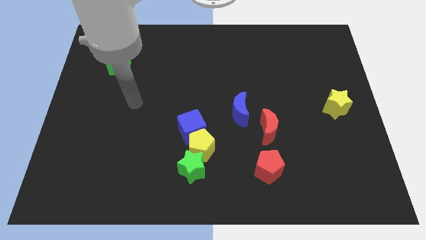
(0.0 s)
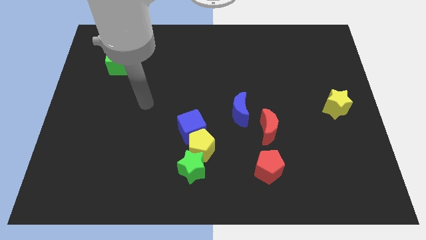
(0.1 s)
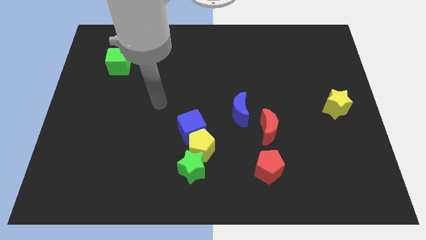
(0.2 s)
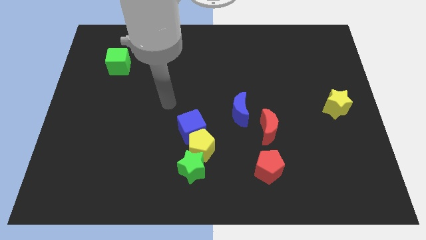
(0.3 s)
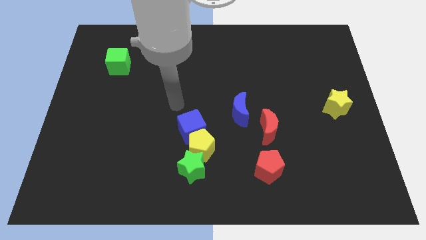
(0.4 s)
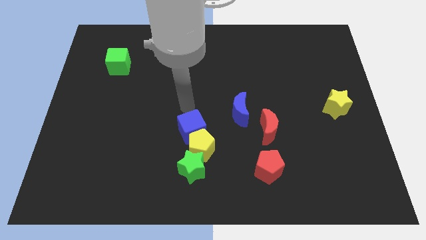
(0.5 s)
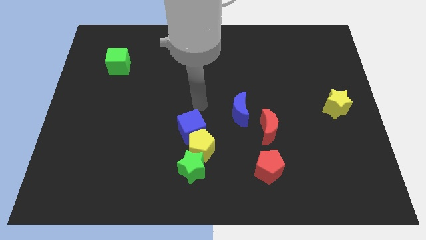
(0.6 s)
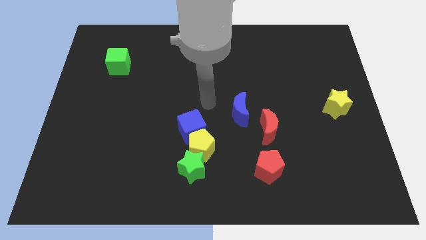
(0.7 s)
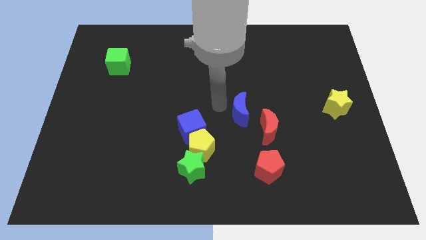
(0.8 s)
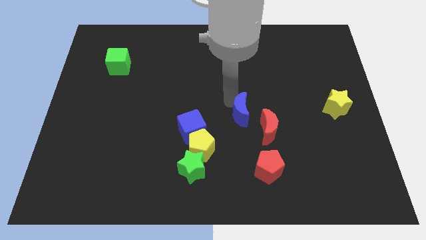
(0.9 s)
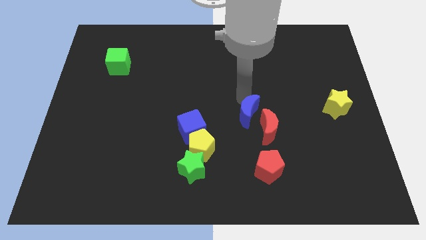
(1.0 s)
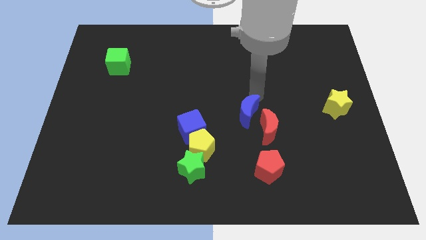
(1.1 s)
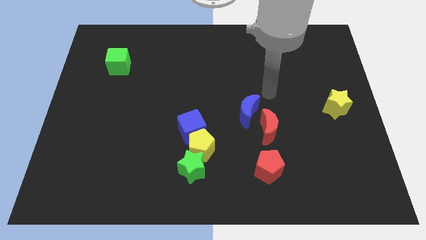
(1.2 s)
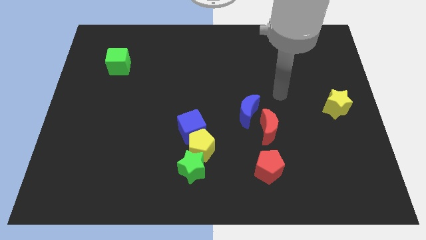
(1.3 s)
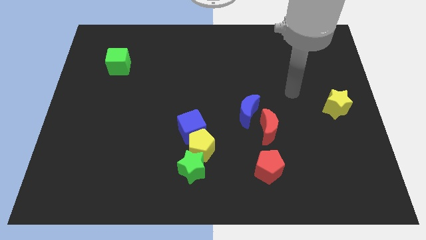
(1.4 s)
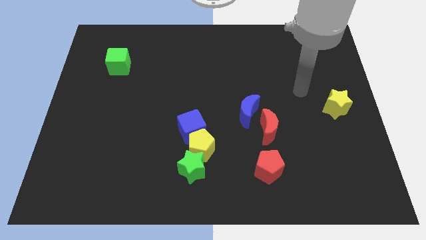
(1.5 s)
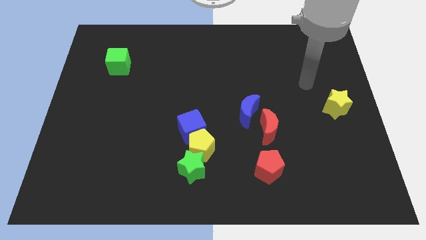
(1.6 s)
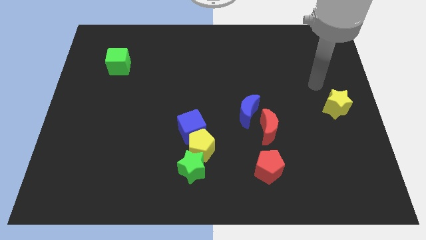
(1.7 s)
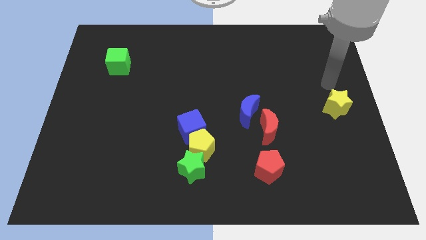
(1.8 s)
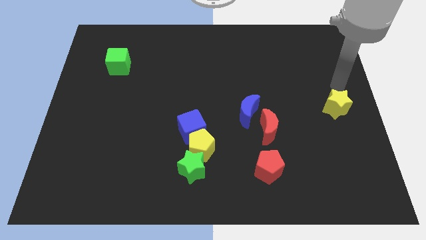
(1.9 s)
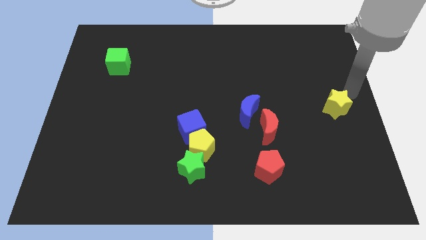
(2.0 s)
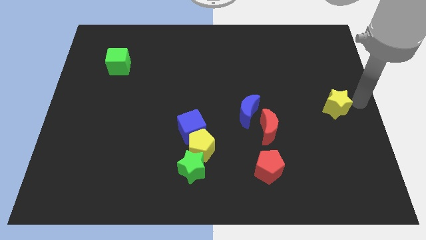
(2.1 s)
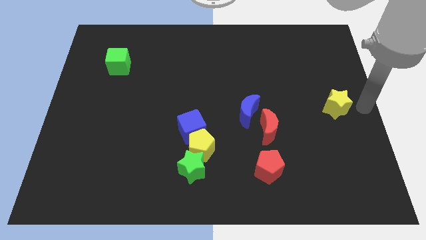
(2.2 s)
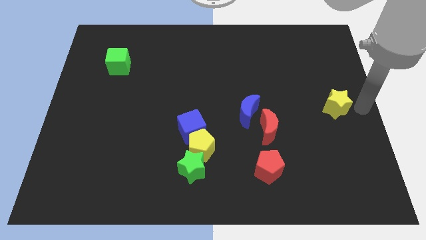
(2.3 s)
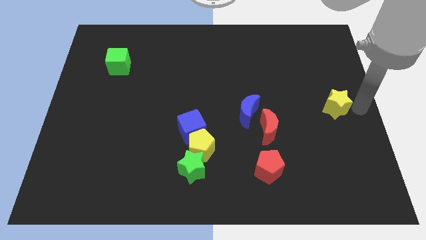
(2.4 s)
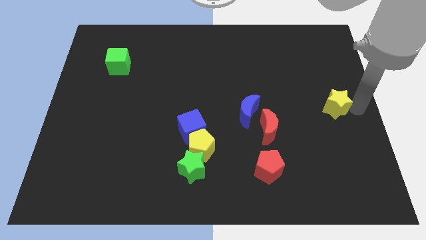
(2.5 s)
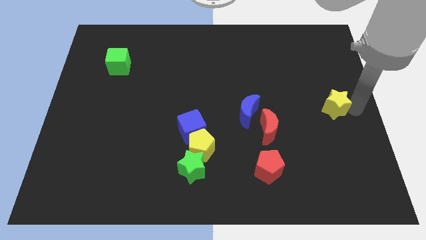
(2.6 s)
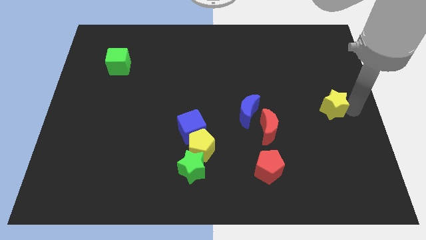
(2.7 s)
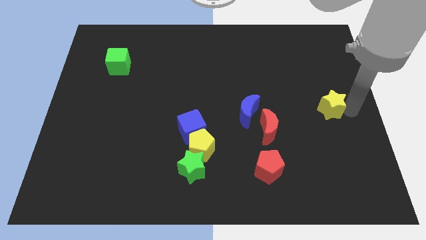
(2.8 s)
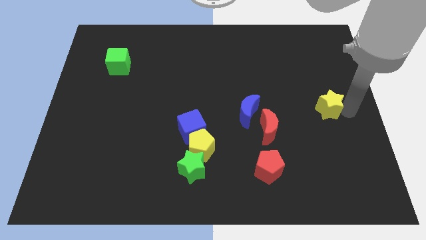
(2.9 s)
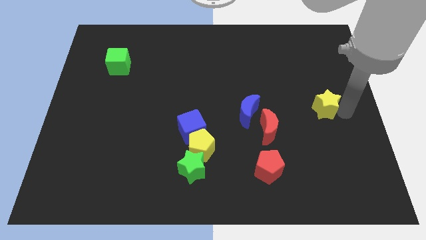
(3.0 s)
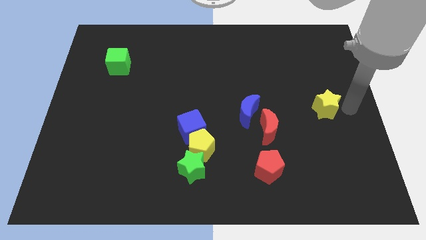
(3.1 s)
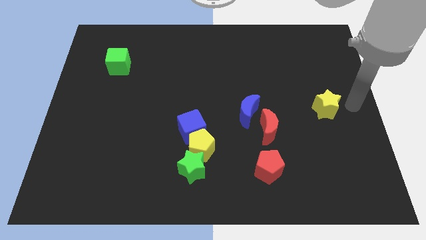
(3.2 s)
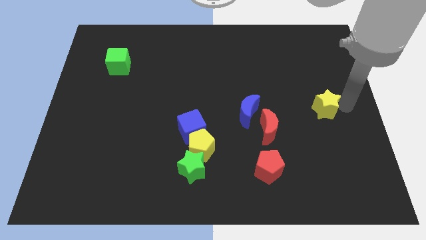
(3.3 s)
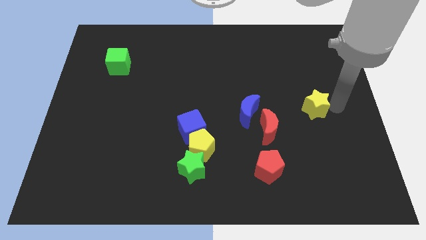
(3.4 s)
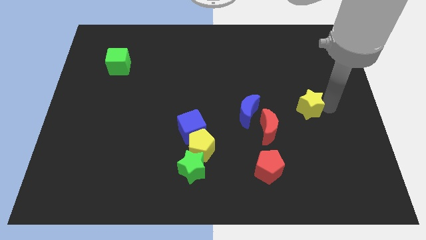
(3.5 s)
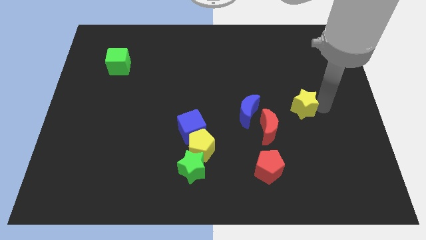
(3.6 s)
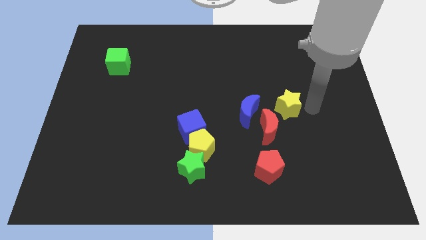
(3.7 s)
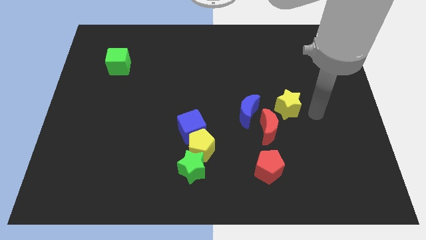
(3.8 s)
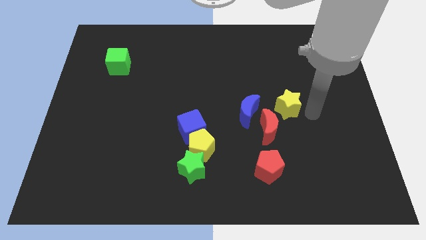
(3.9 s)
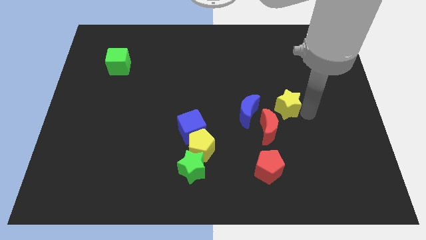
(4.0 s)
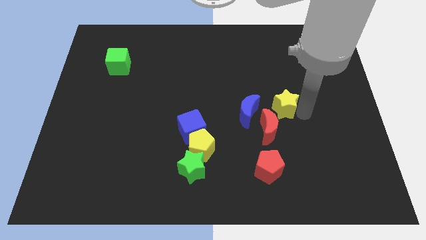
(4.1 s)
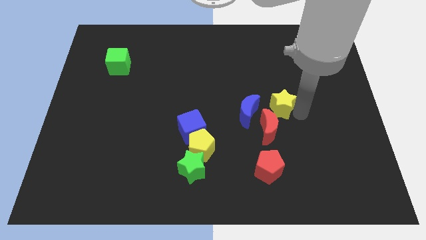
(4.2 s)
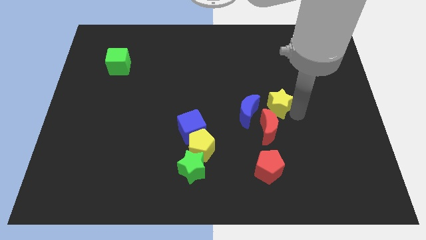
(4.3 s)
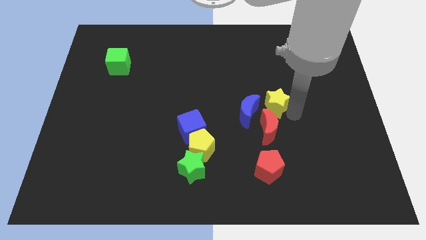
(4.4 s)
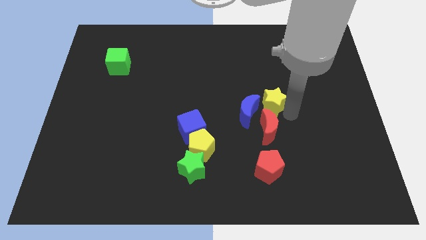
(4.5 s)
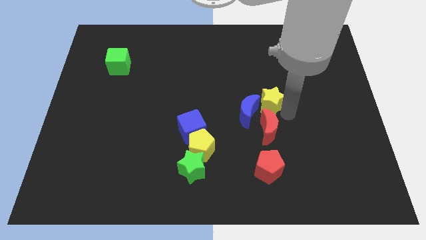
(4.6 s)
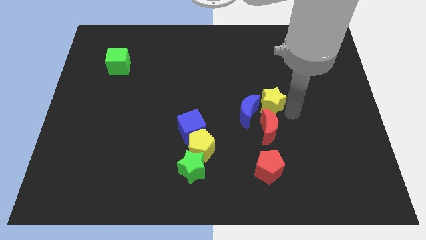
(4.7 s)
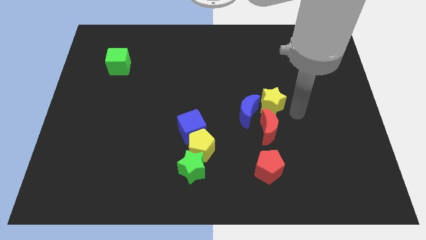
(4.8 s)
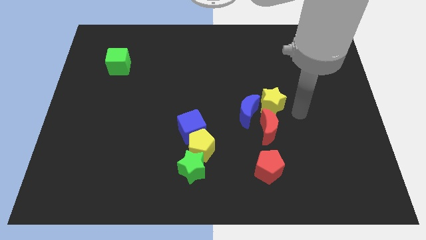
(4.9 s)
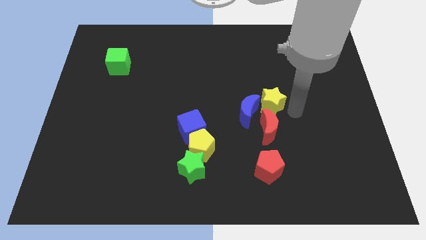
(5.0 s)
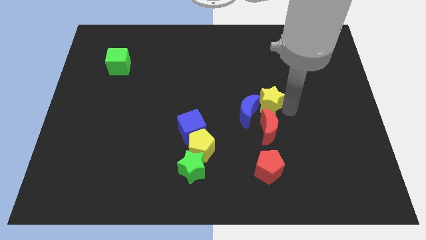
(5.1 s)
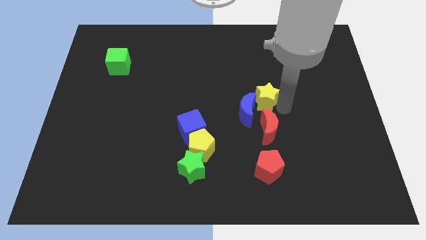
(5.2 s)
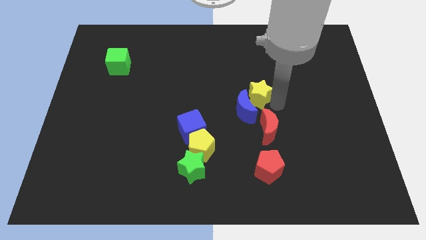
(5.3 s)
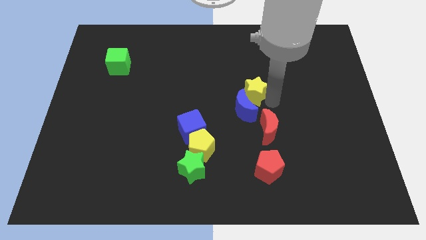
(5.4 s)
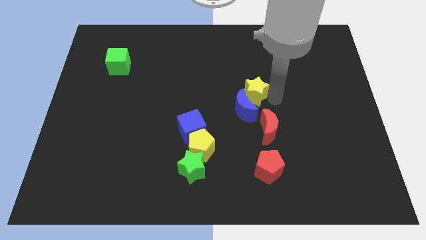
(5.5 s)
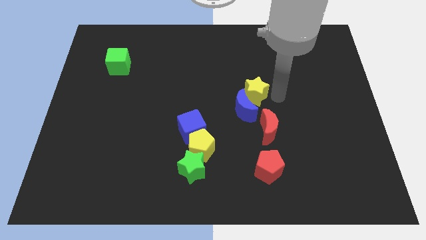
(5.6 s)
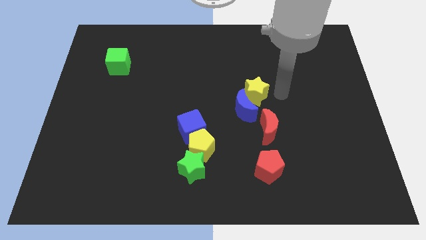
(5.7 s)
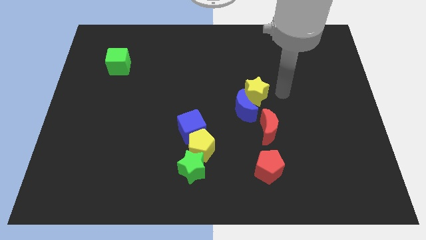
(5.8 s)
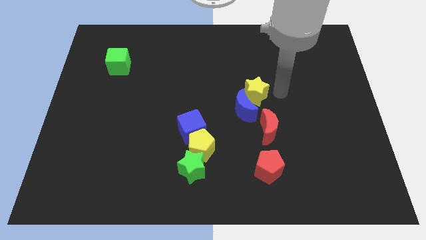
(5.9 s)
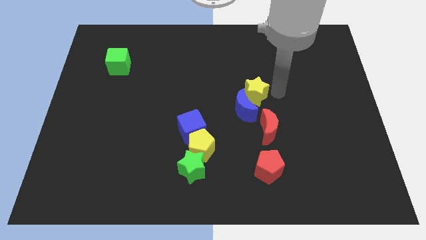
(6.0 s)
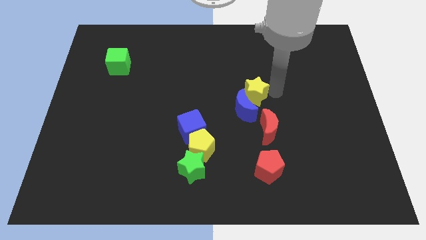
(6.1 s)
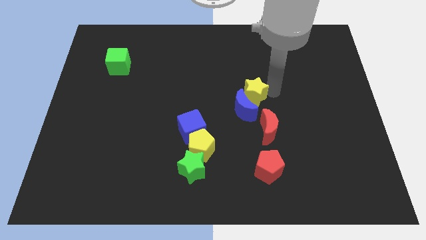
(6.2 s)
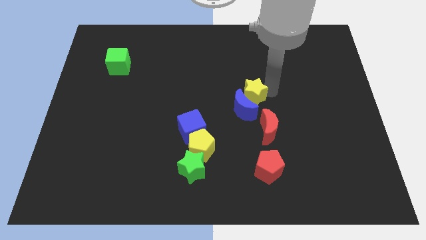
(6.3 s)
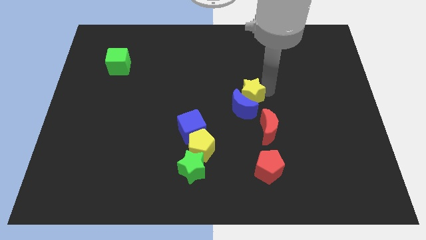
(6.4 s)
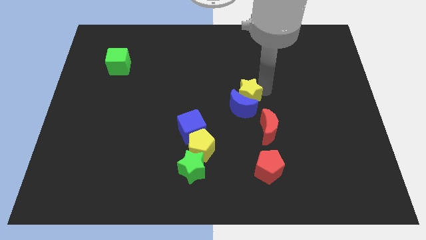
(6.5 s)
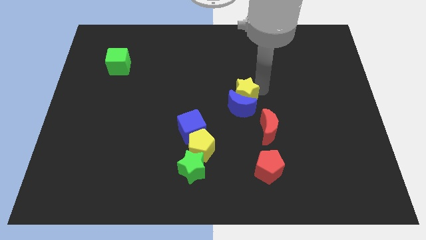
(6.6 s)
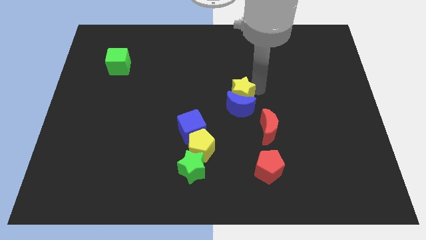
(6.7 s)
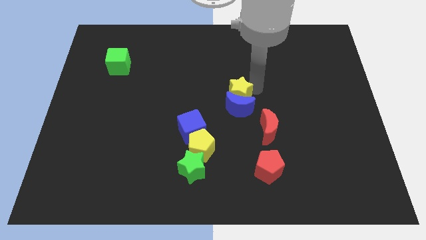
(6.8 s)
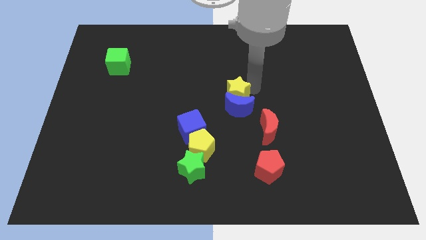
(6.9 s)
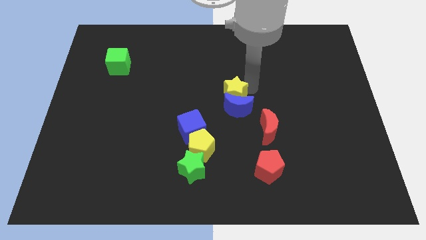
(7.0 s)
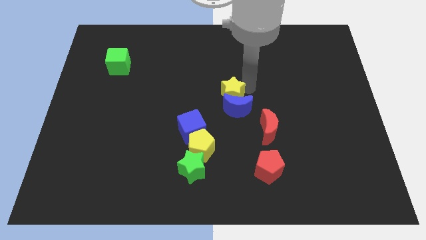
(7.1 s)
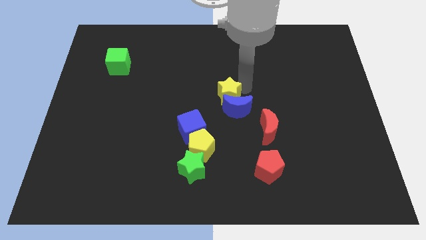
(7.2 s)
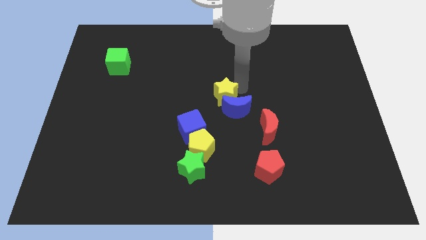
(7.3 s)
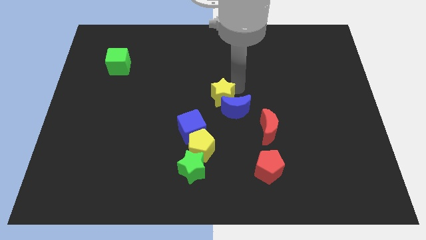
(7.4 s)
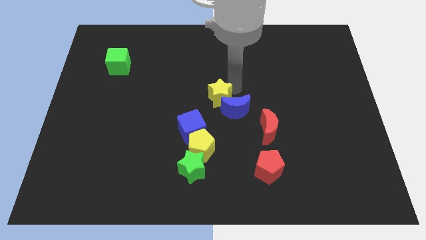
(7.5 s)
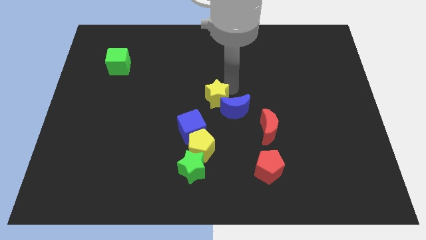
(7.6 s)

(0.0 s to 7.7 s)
slide the yellow star above the yellow pentagon
